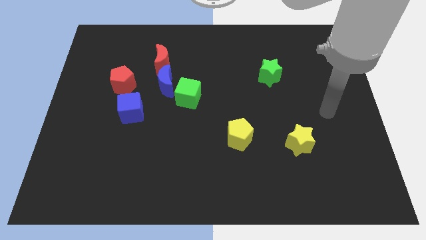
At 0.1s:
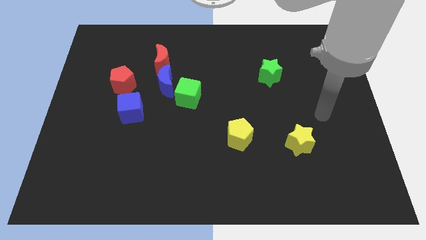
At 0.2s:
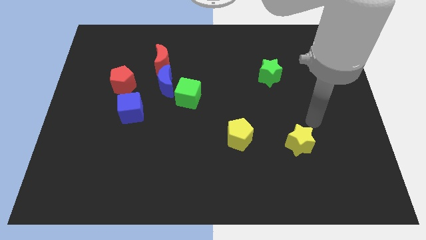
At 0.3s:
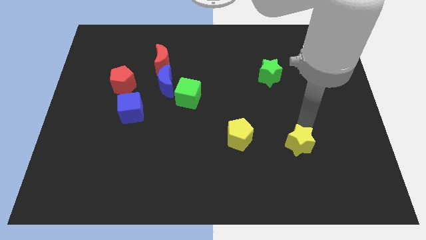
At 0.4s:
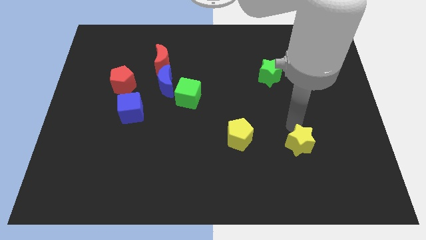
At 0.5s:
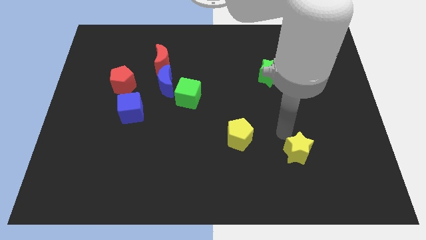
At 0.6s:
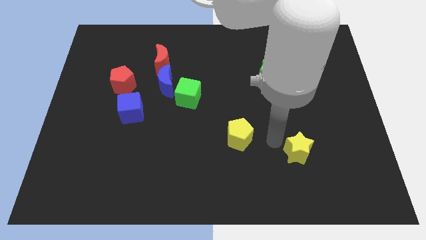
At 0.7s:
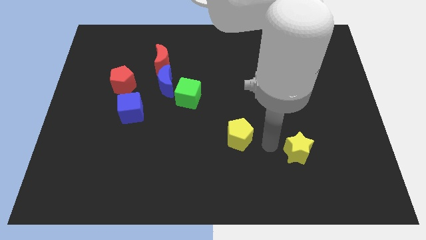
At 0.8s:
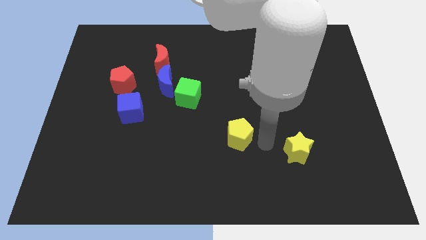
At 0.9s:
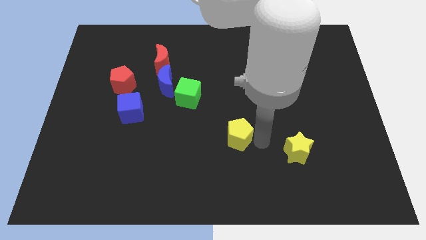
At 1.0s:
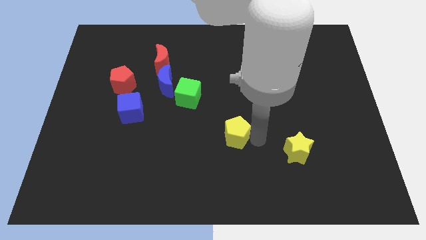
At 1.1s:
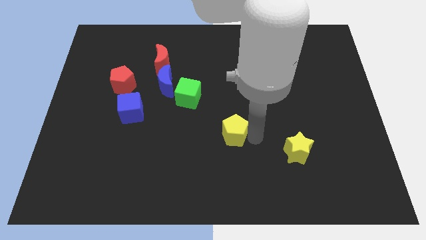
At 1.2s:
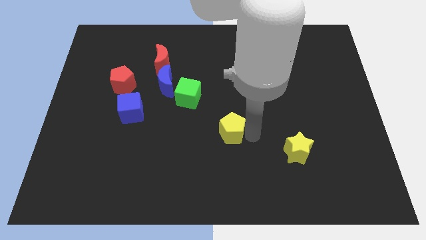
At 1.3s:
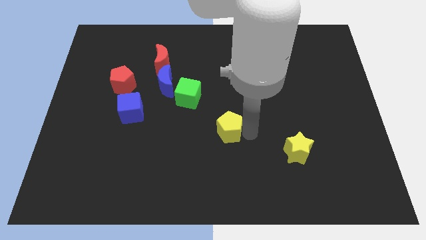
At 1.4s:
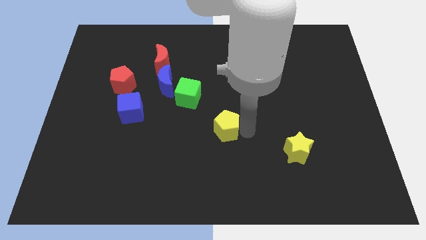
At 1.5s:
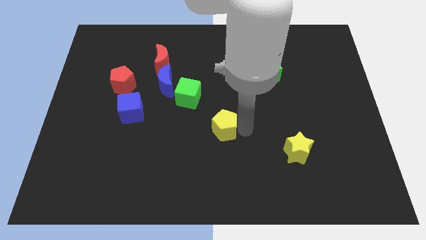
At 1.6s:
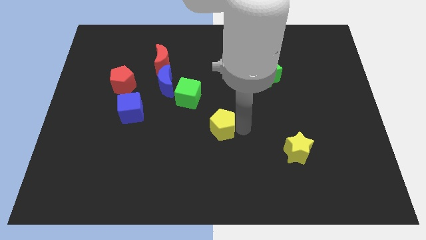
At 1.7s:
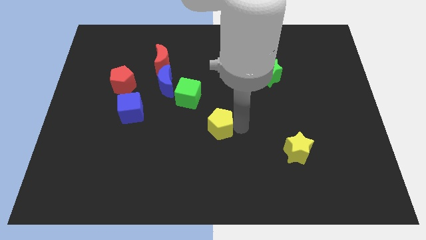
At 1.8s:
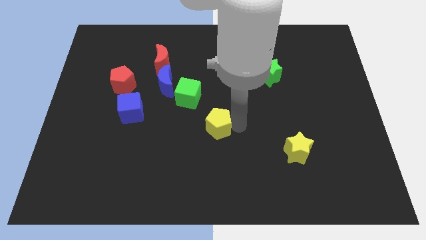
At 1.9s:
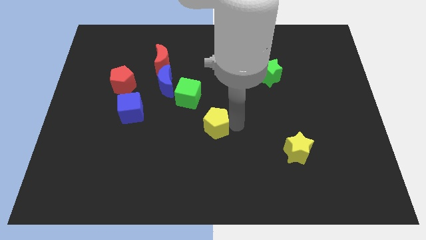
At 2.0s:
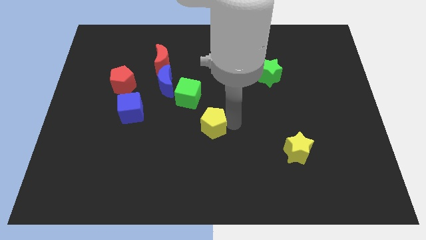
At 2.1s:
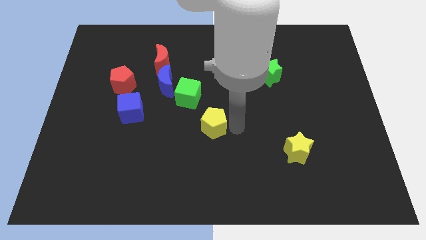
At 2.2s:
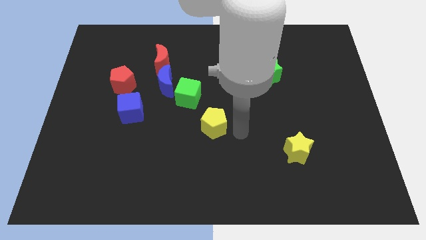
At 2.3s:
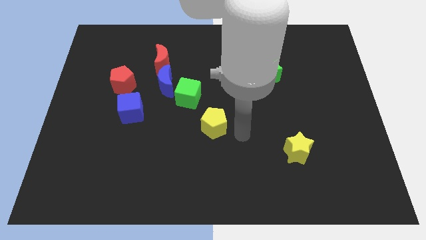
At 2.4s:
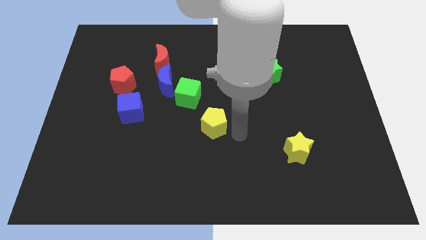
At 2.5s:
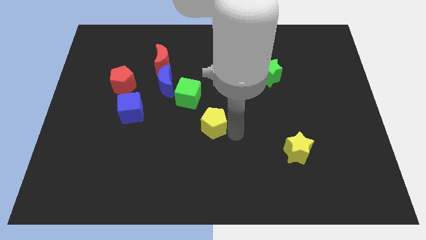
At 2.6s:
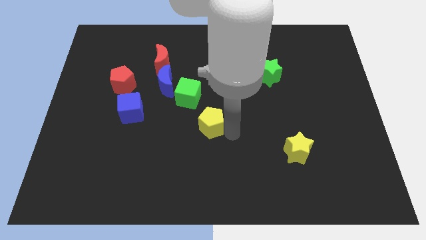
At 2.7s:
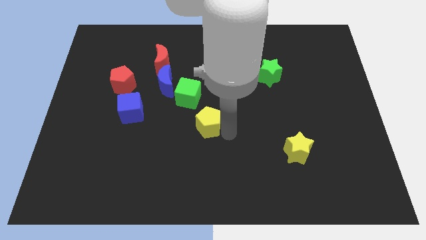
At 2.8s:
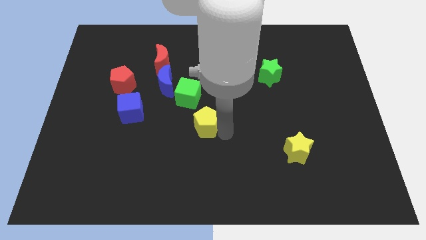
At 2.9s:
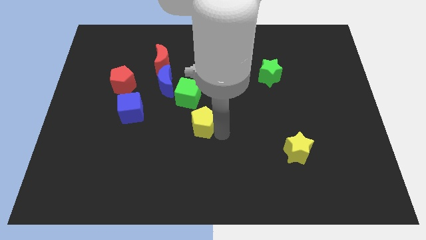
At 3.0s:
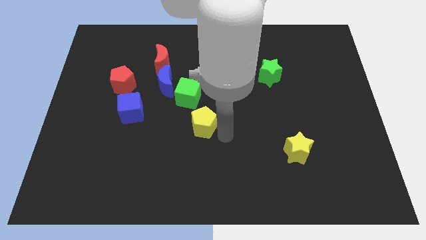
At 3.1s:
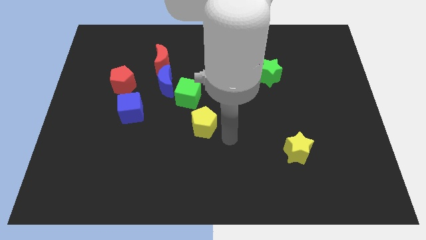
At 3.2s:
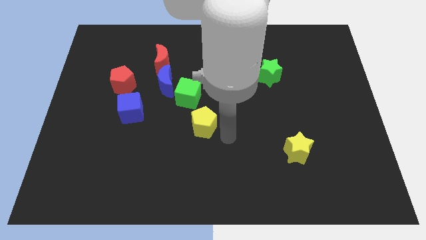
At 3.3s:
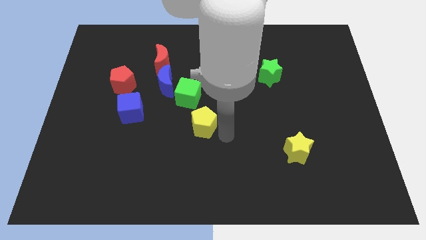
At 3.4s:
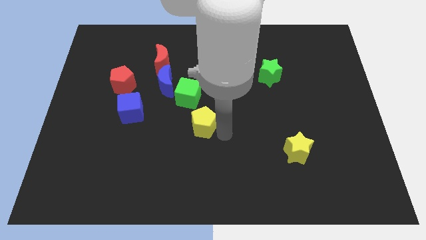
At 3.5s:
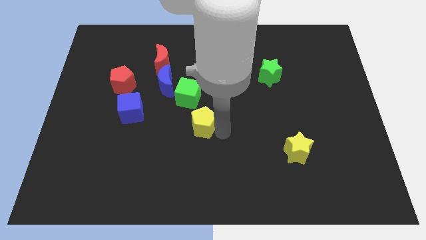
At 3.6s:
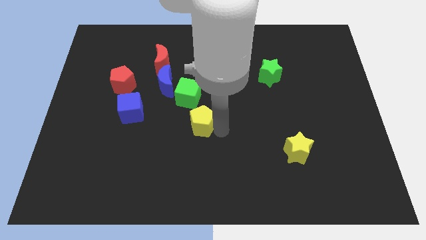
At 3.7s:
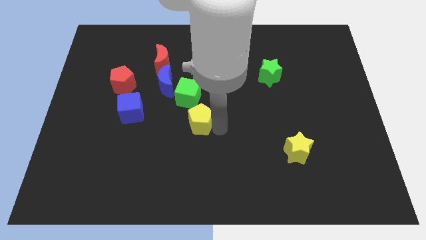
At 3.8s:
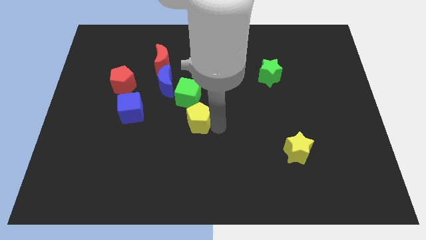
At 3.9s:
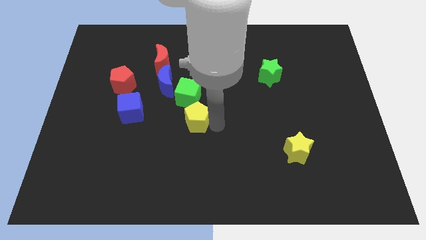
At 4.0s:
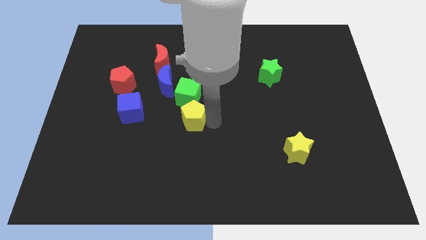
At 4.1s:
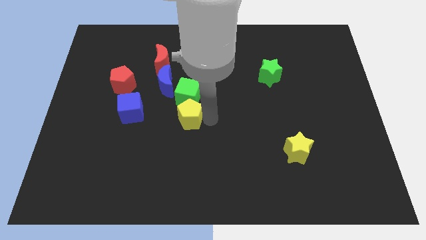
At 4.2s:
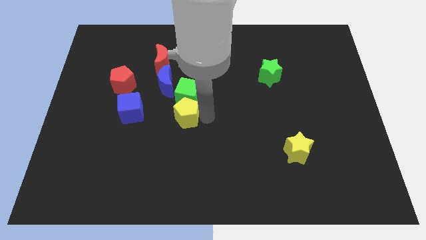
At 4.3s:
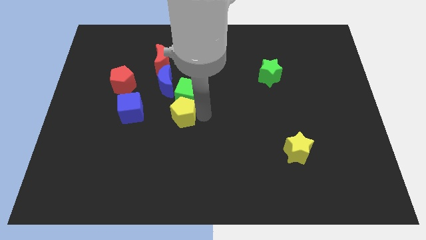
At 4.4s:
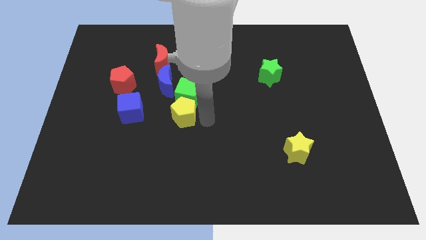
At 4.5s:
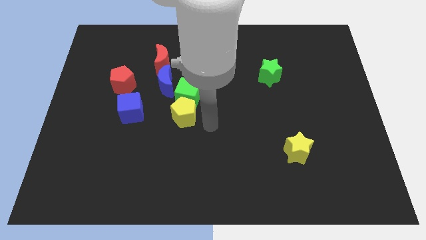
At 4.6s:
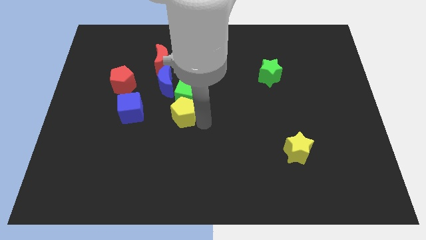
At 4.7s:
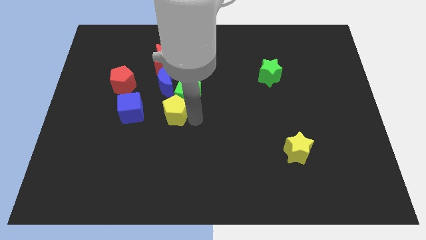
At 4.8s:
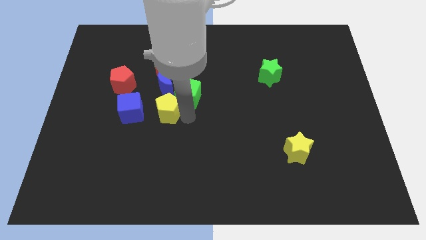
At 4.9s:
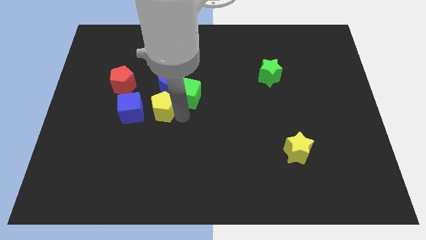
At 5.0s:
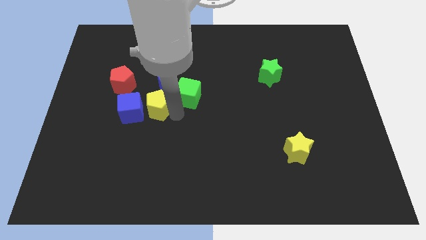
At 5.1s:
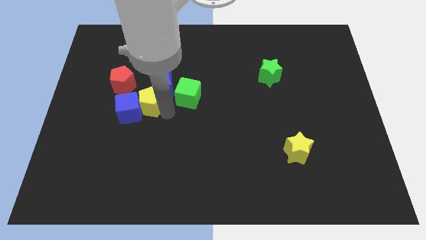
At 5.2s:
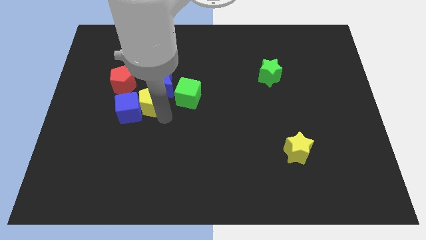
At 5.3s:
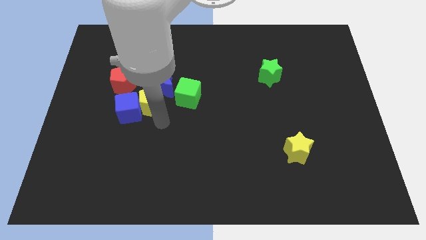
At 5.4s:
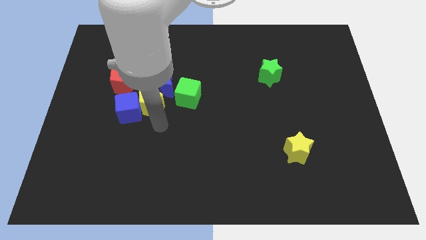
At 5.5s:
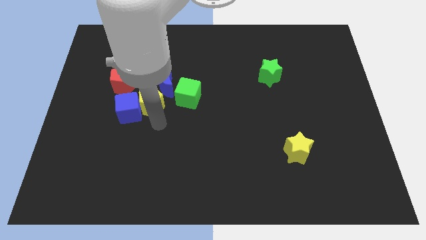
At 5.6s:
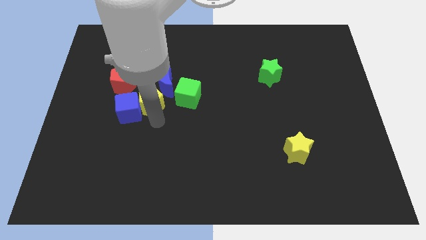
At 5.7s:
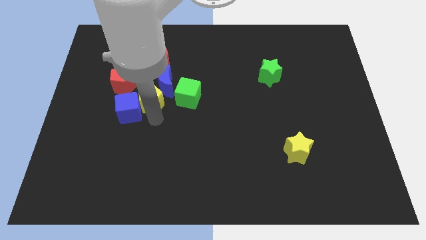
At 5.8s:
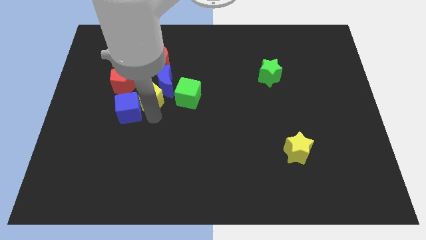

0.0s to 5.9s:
slide the yellow pentagon upwards and left

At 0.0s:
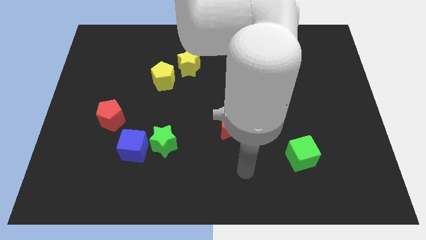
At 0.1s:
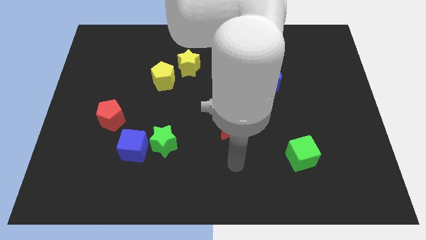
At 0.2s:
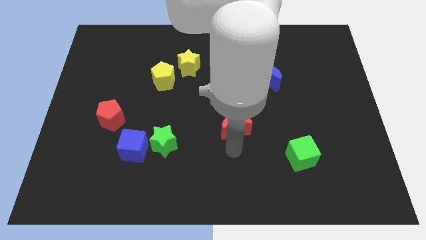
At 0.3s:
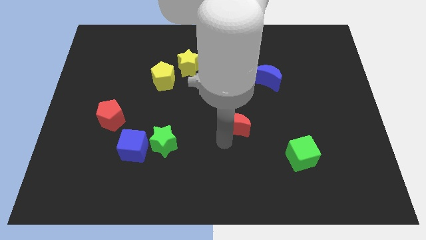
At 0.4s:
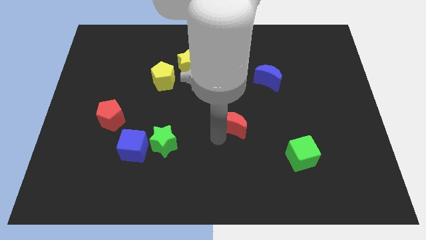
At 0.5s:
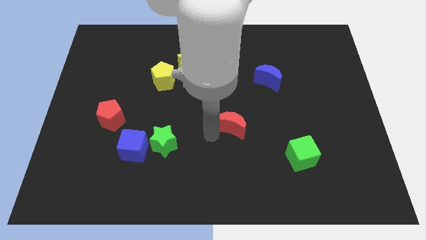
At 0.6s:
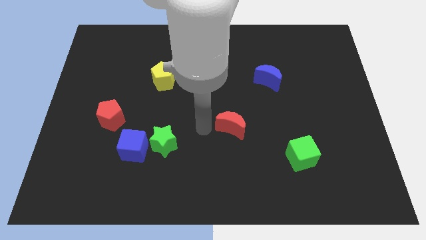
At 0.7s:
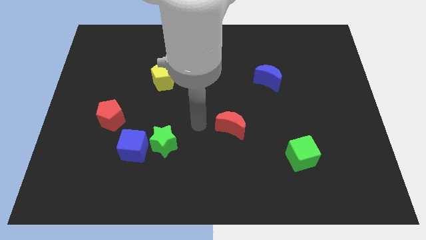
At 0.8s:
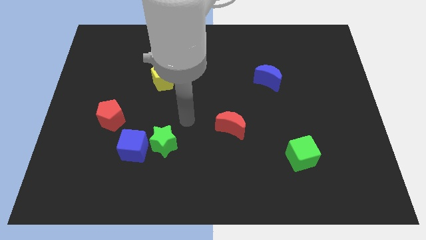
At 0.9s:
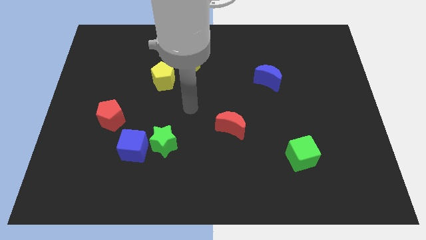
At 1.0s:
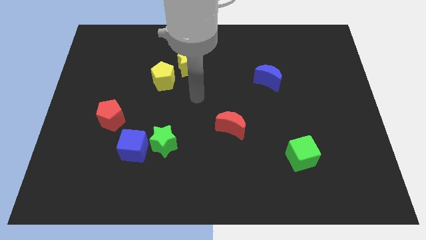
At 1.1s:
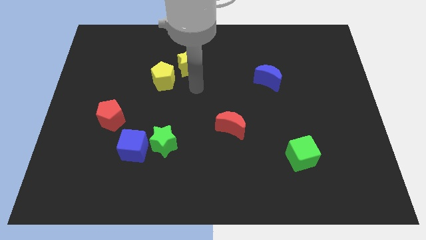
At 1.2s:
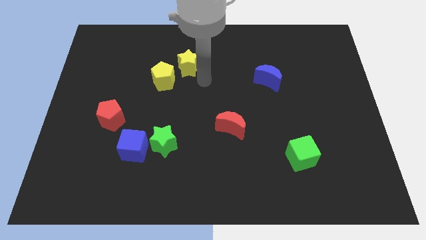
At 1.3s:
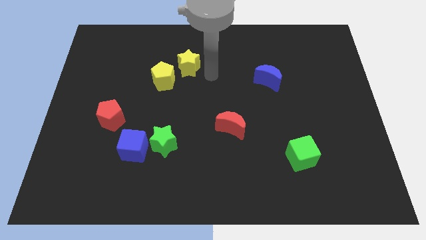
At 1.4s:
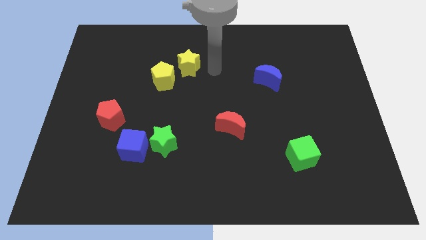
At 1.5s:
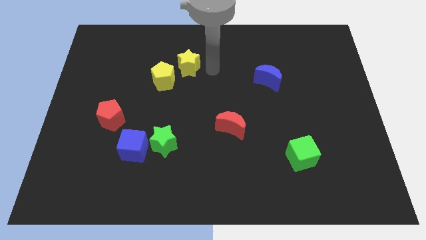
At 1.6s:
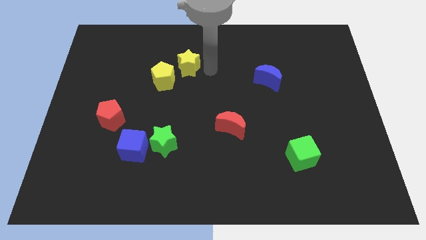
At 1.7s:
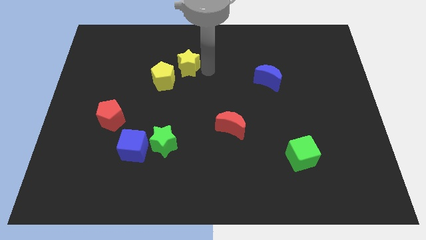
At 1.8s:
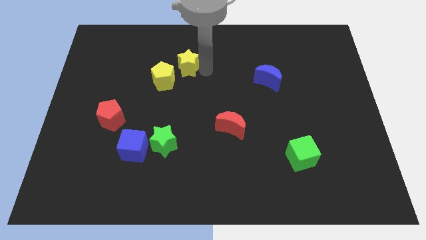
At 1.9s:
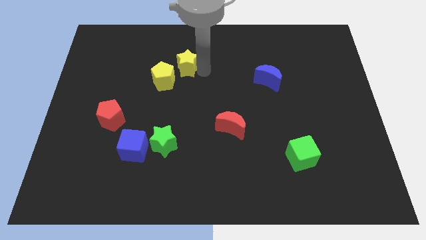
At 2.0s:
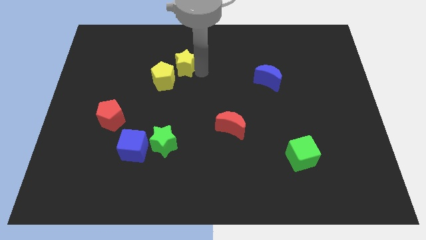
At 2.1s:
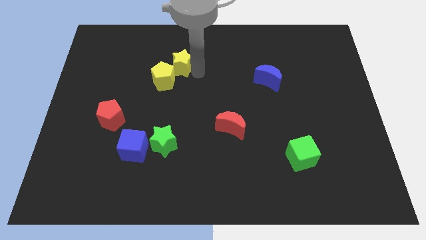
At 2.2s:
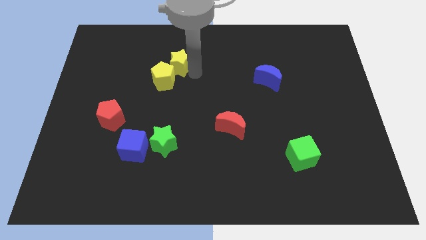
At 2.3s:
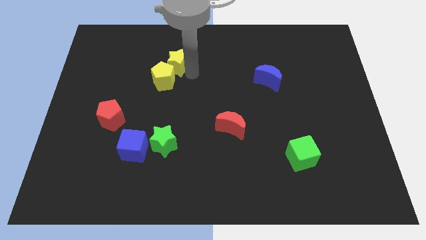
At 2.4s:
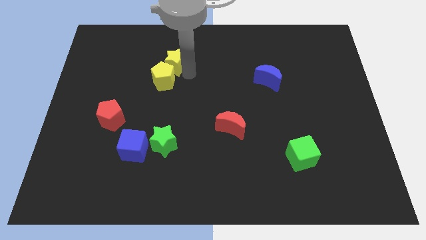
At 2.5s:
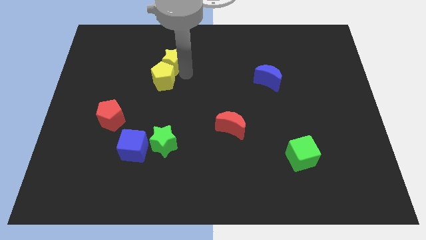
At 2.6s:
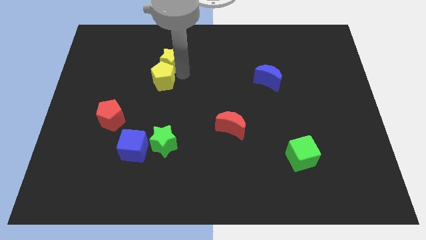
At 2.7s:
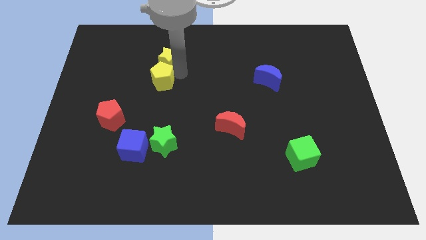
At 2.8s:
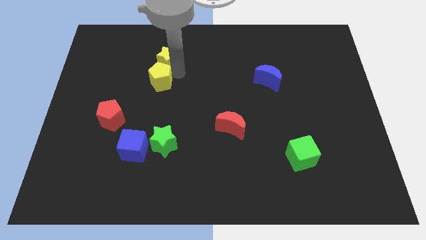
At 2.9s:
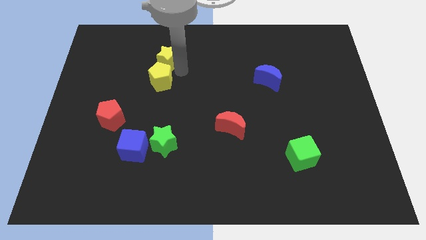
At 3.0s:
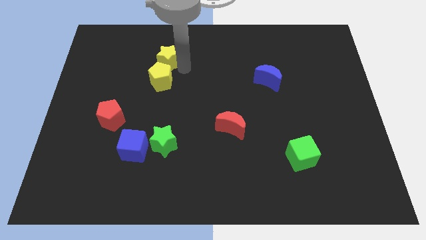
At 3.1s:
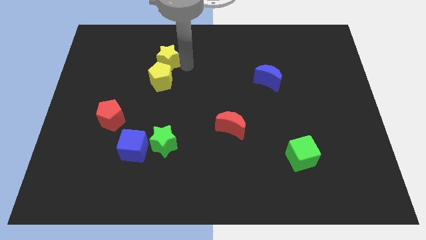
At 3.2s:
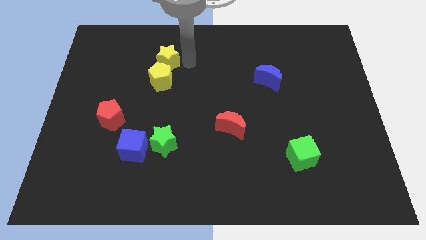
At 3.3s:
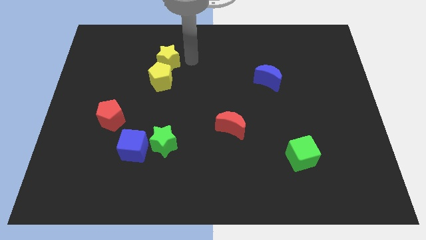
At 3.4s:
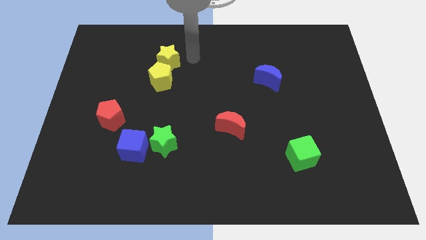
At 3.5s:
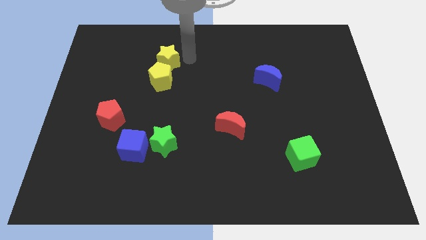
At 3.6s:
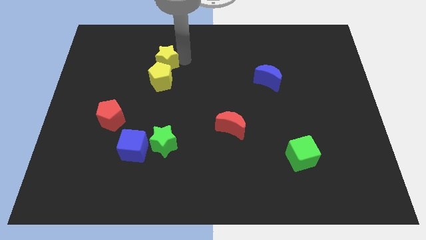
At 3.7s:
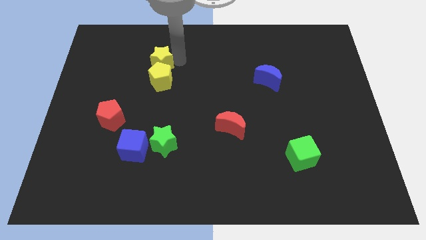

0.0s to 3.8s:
slide the yellow star to the left a little
